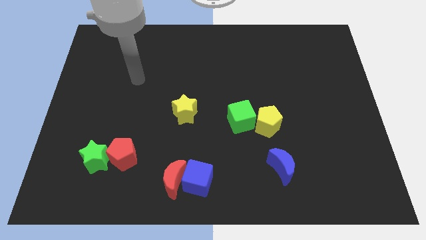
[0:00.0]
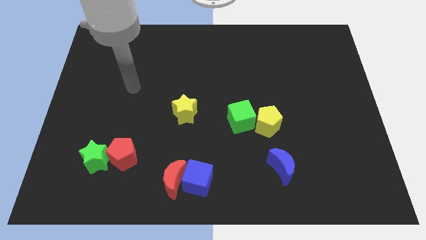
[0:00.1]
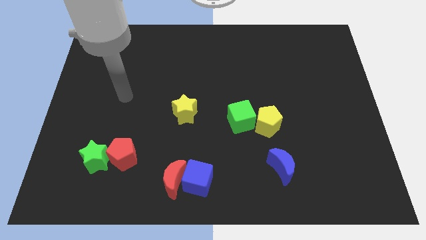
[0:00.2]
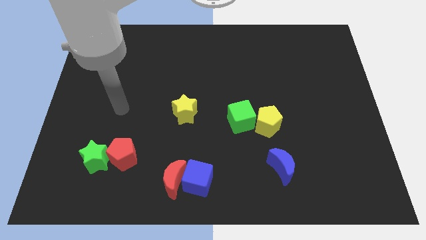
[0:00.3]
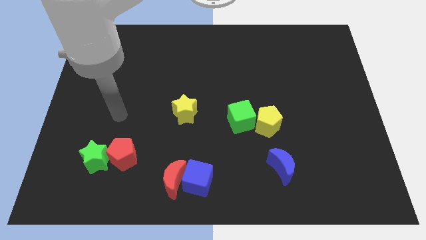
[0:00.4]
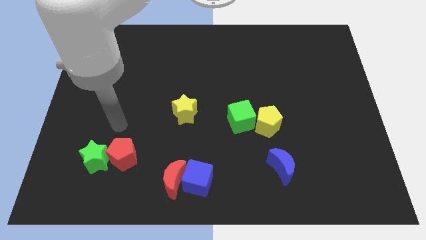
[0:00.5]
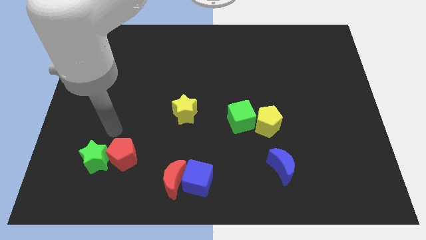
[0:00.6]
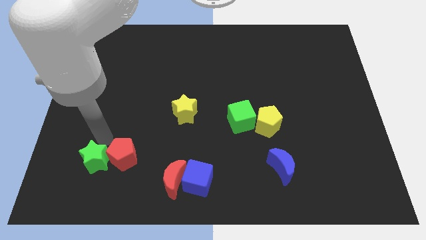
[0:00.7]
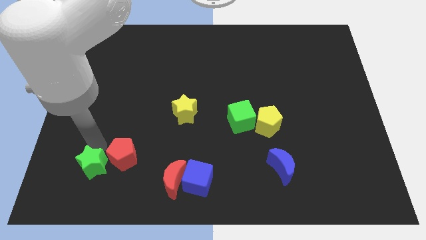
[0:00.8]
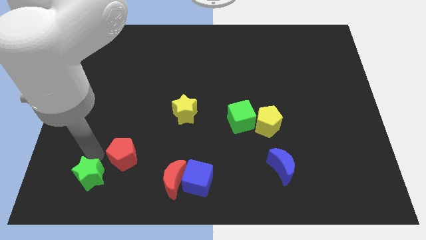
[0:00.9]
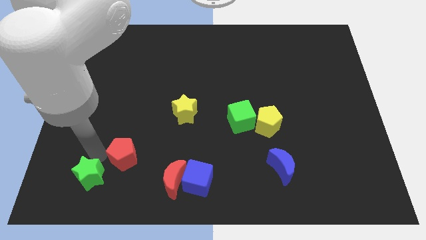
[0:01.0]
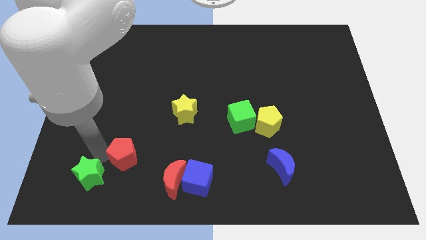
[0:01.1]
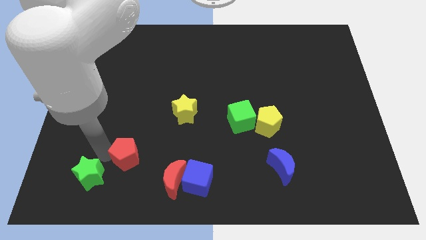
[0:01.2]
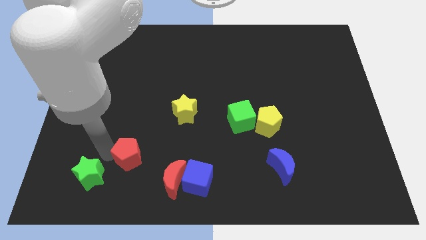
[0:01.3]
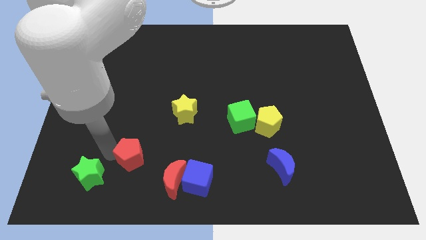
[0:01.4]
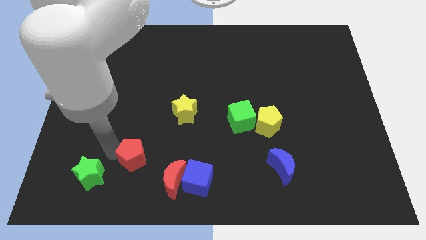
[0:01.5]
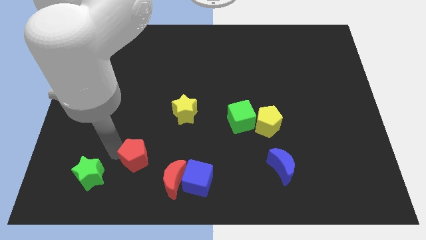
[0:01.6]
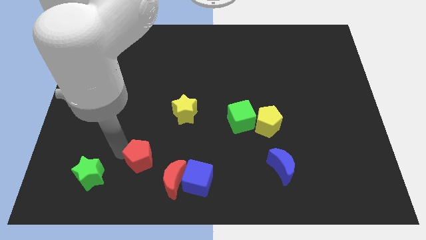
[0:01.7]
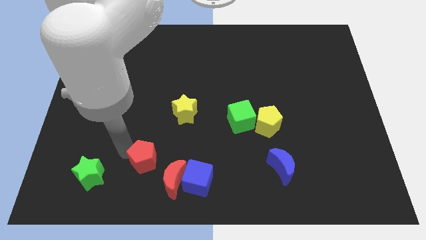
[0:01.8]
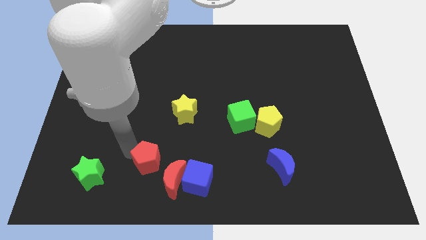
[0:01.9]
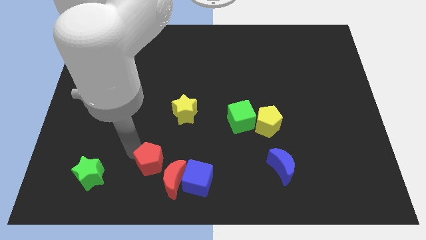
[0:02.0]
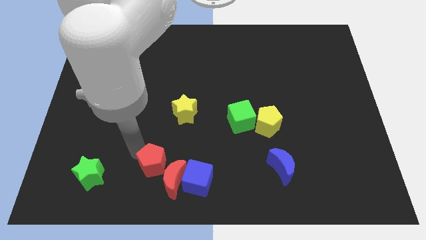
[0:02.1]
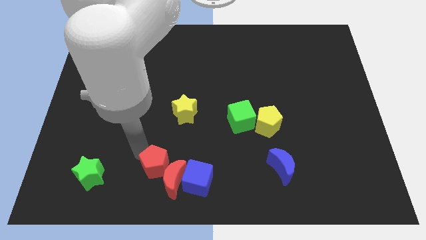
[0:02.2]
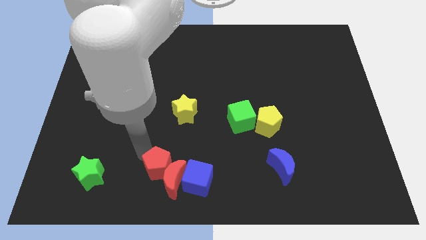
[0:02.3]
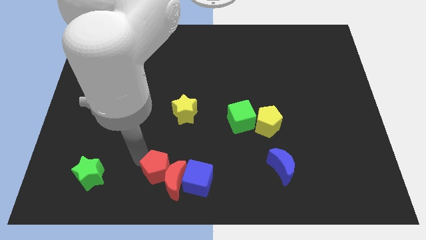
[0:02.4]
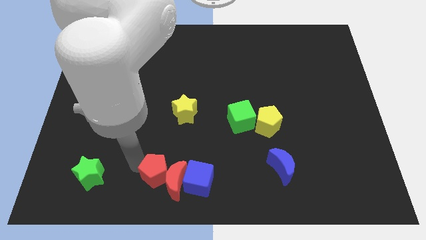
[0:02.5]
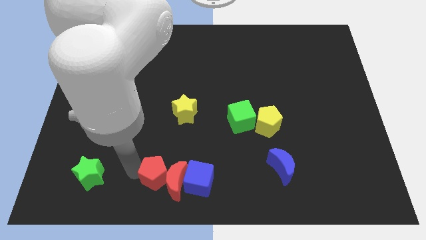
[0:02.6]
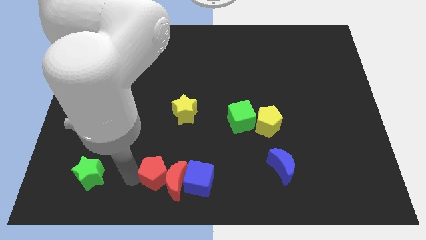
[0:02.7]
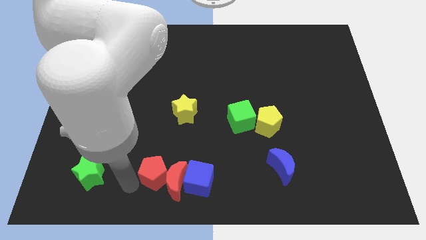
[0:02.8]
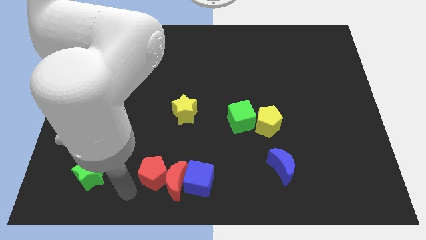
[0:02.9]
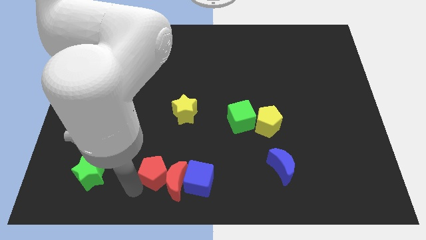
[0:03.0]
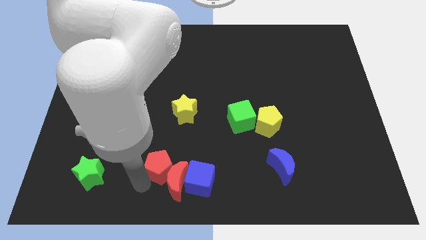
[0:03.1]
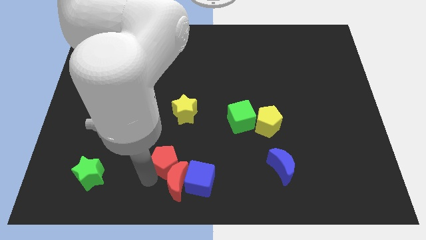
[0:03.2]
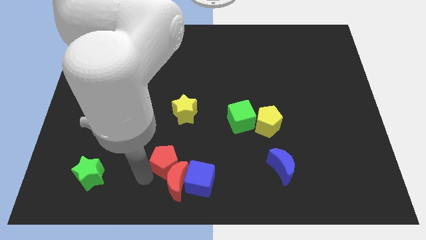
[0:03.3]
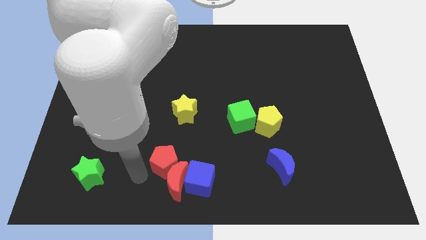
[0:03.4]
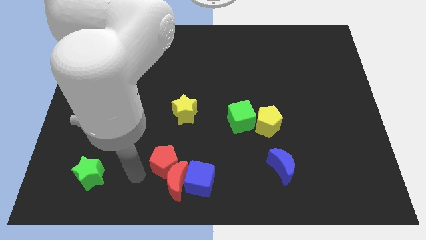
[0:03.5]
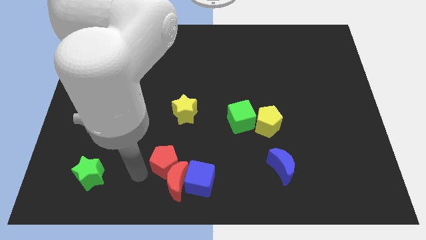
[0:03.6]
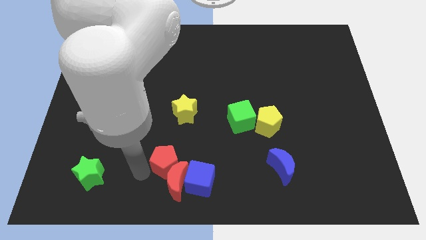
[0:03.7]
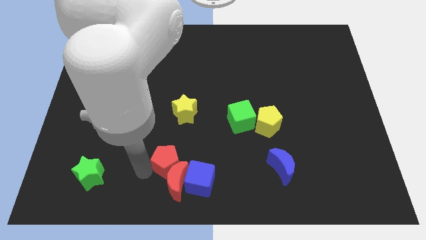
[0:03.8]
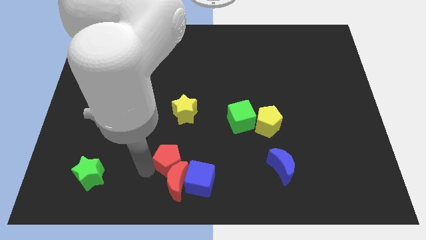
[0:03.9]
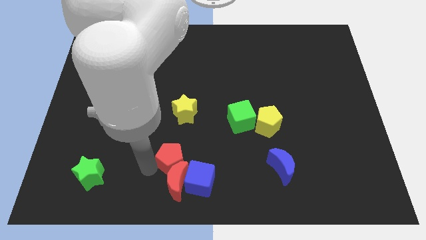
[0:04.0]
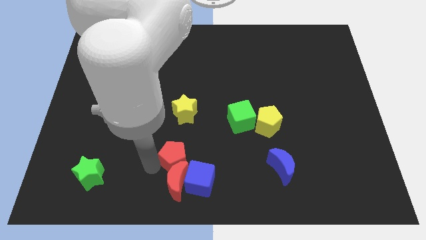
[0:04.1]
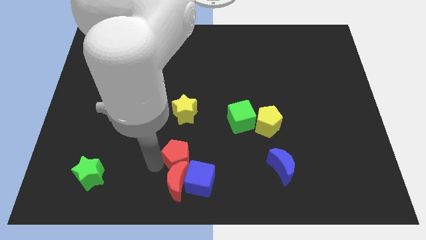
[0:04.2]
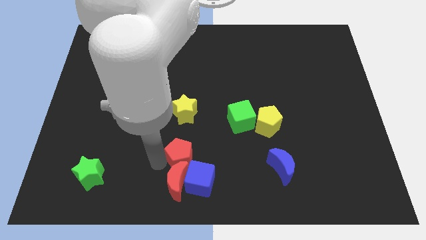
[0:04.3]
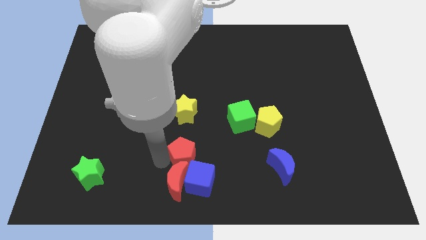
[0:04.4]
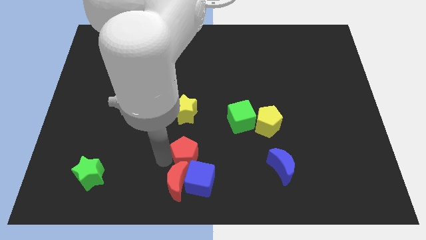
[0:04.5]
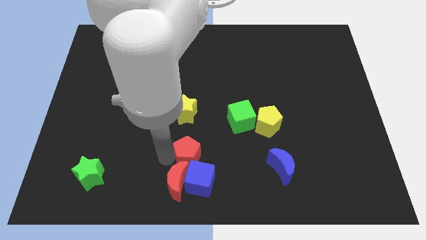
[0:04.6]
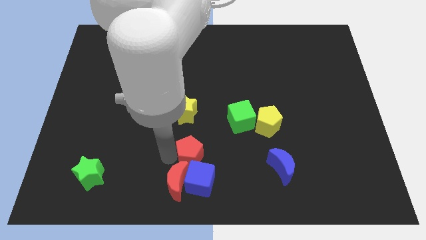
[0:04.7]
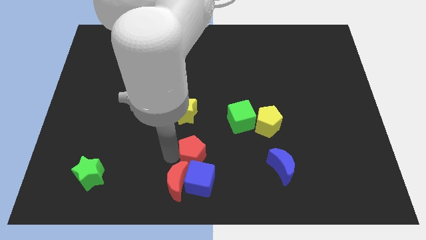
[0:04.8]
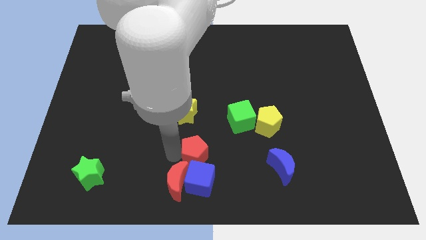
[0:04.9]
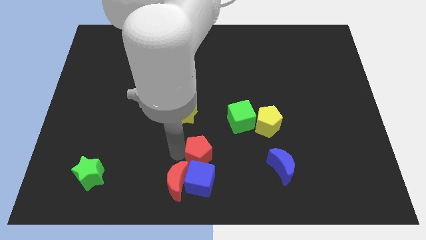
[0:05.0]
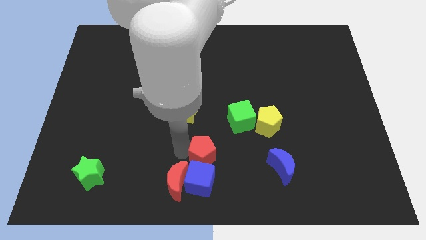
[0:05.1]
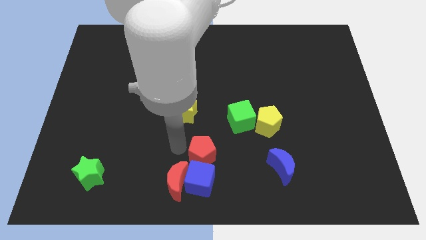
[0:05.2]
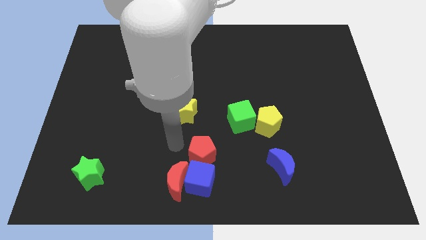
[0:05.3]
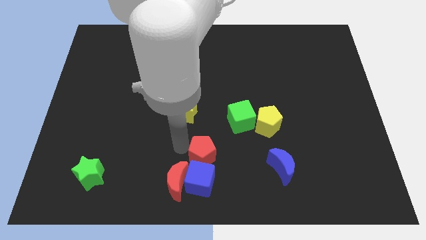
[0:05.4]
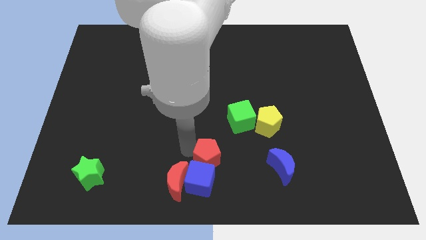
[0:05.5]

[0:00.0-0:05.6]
put the red pentagon left of the blue moon

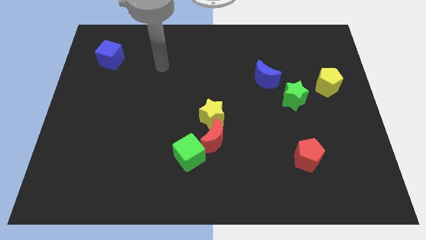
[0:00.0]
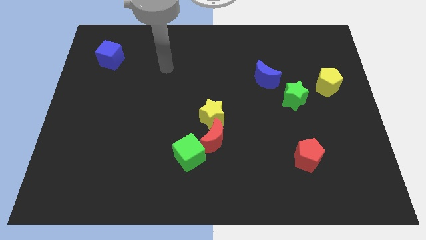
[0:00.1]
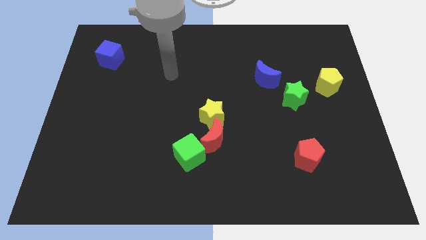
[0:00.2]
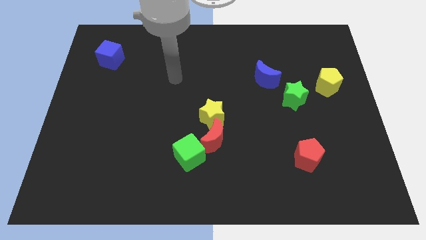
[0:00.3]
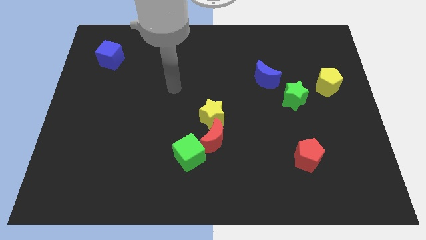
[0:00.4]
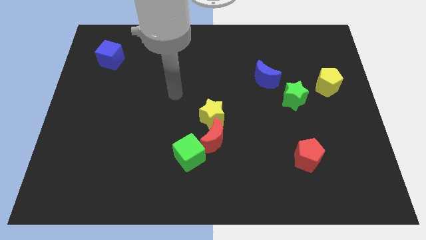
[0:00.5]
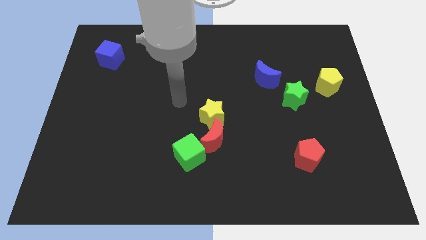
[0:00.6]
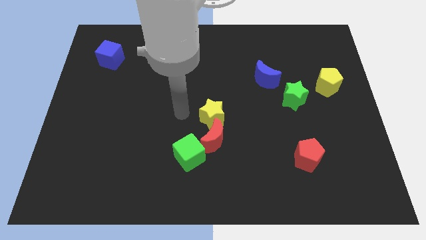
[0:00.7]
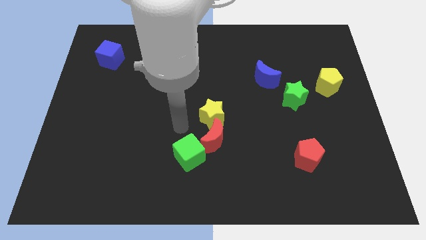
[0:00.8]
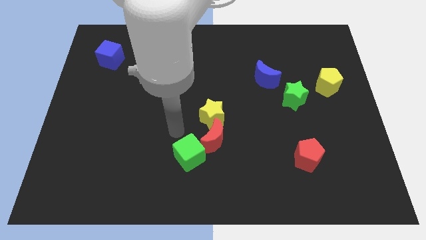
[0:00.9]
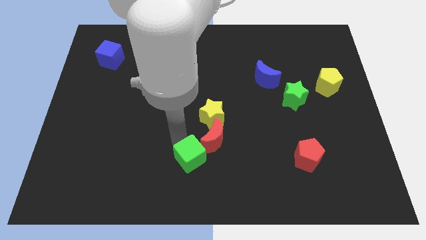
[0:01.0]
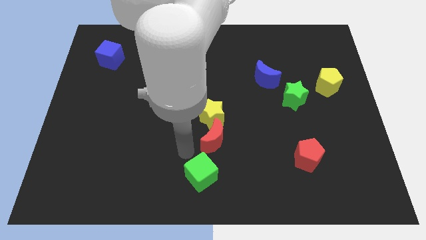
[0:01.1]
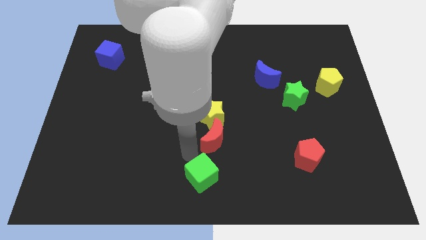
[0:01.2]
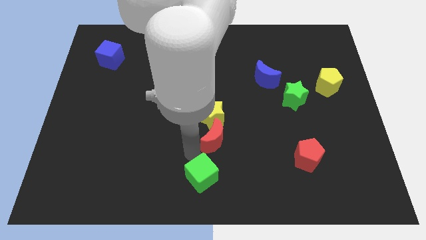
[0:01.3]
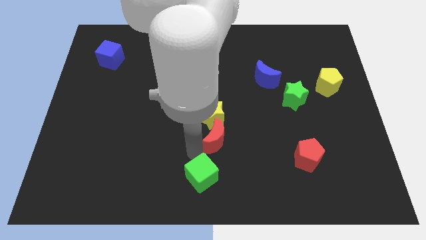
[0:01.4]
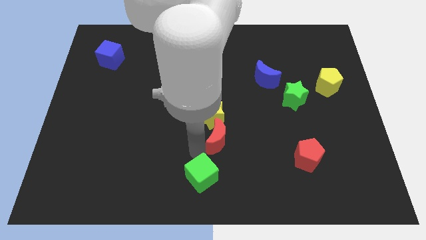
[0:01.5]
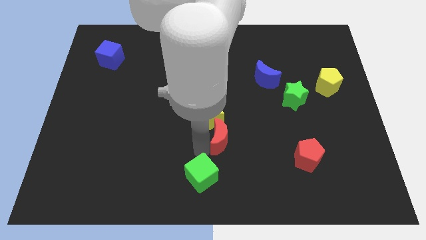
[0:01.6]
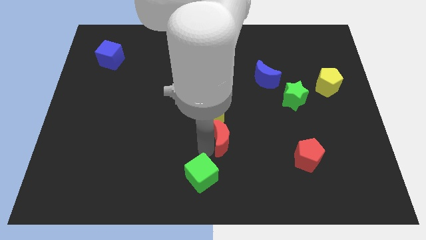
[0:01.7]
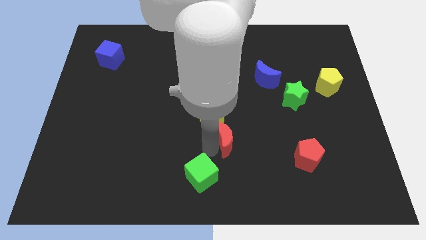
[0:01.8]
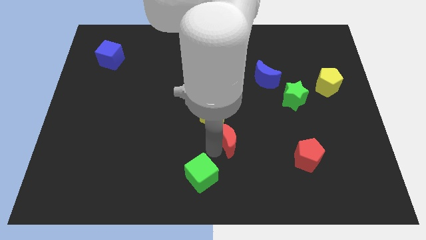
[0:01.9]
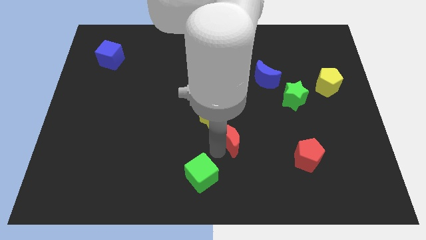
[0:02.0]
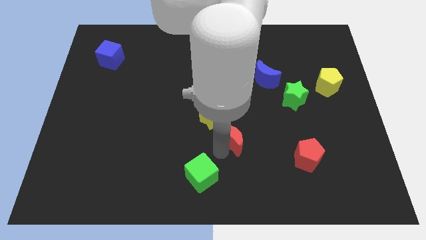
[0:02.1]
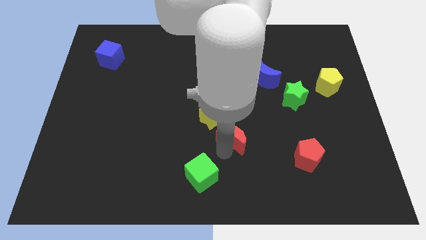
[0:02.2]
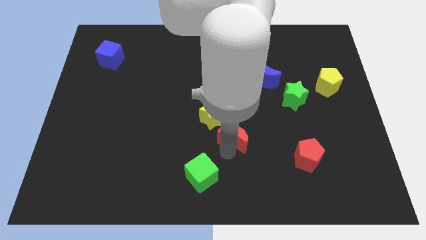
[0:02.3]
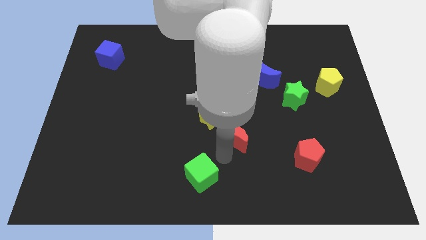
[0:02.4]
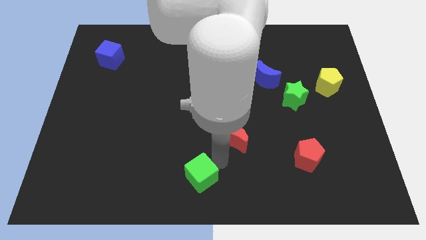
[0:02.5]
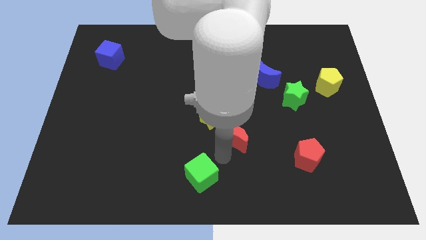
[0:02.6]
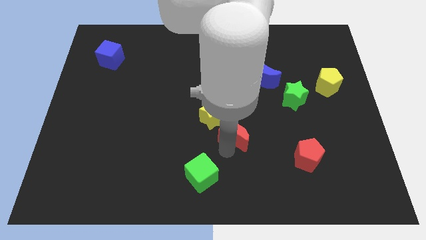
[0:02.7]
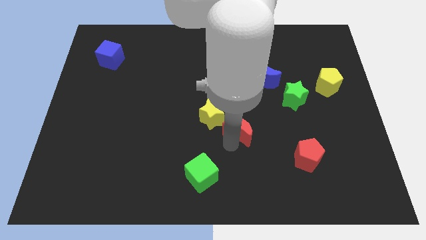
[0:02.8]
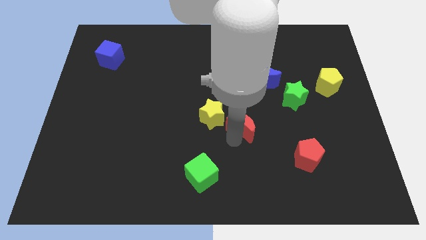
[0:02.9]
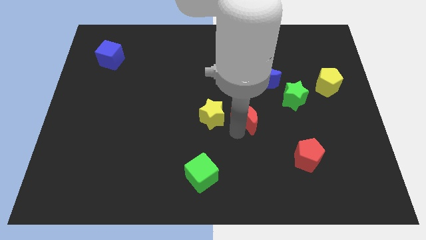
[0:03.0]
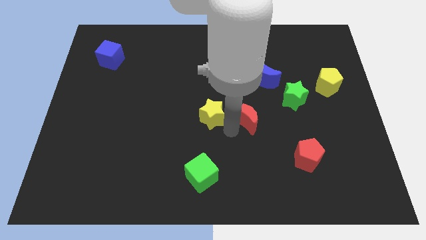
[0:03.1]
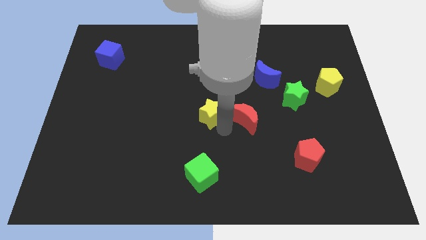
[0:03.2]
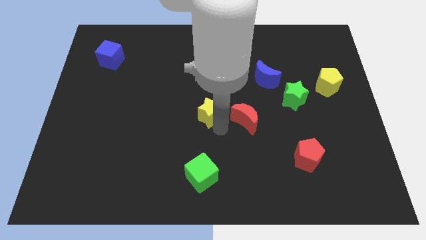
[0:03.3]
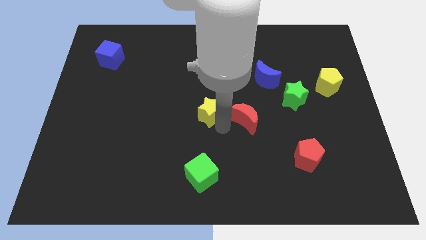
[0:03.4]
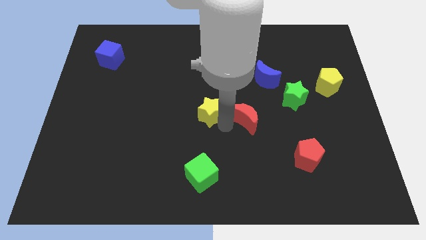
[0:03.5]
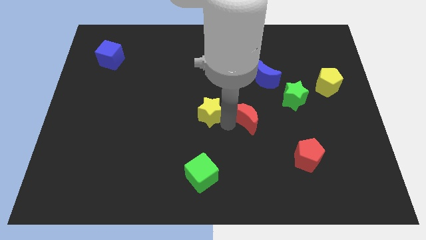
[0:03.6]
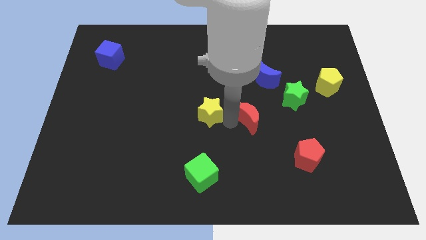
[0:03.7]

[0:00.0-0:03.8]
push the red moon below the blue moon
